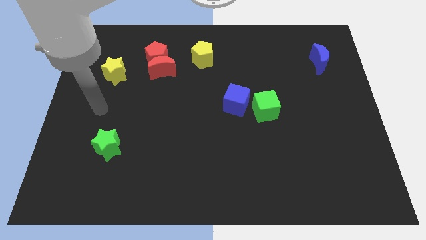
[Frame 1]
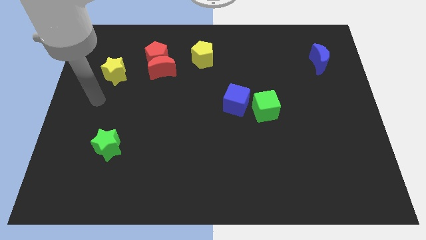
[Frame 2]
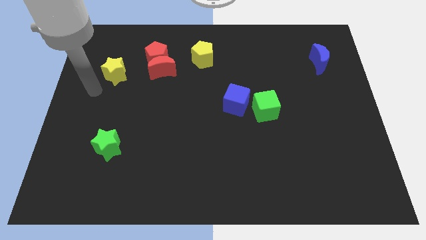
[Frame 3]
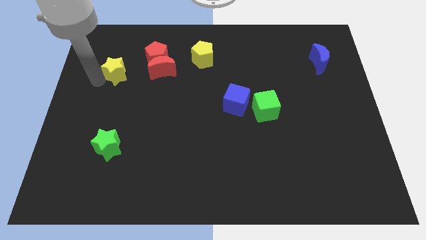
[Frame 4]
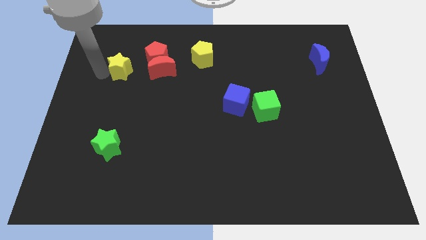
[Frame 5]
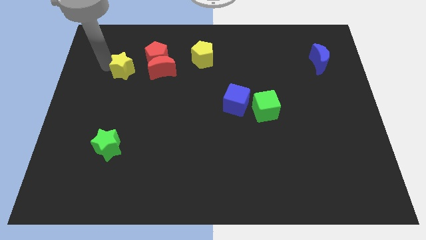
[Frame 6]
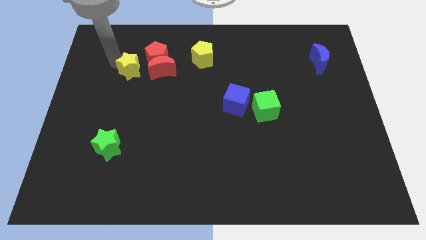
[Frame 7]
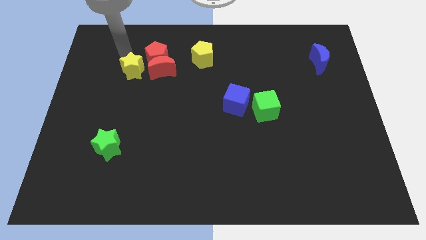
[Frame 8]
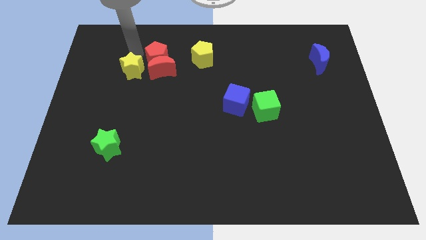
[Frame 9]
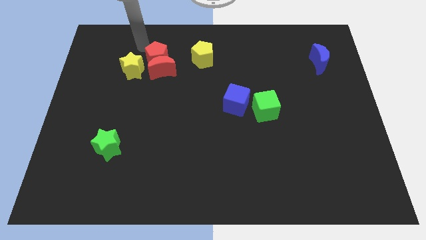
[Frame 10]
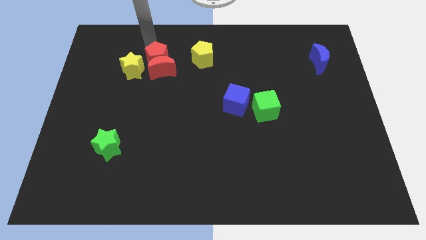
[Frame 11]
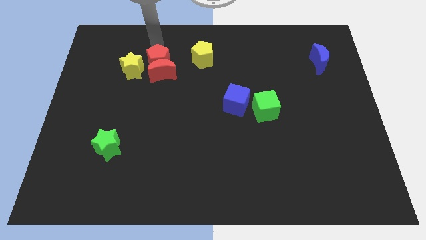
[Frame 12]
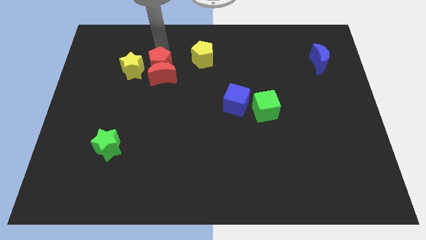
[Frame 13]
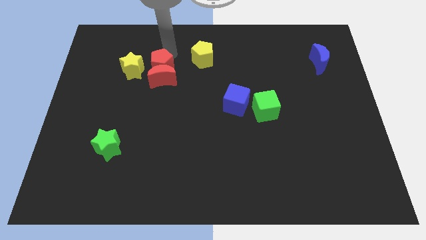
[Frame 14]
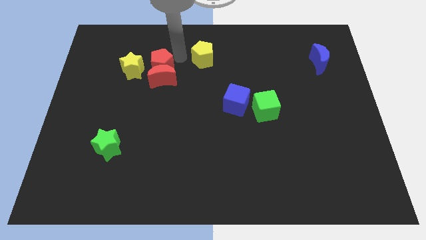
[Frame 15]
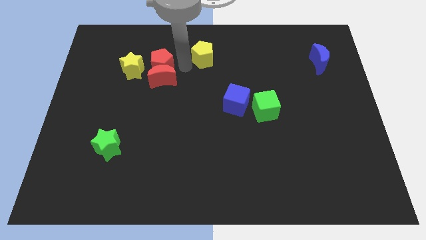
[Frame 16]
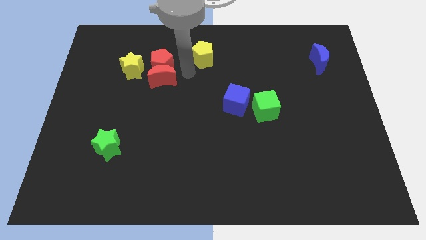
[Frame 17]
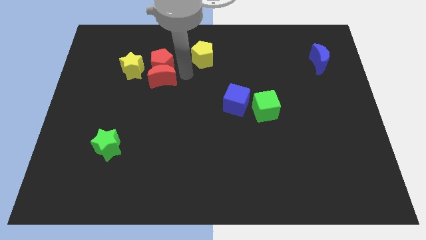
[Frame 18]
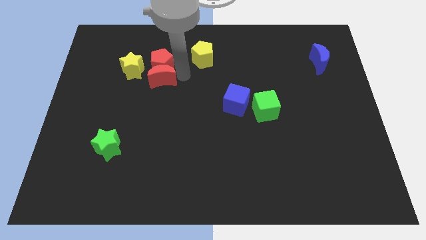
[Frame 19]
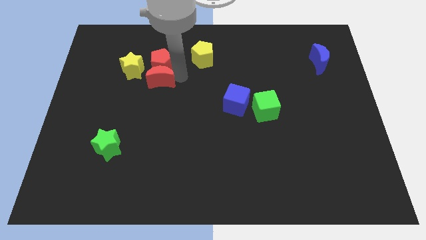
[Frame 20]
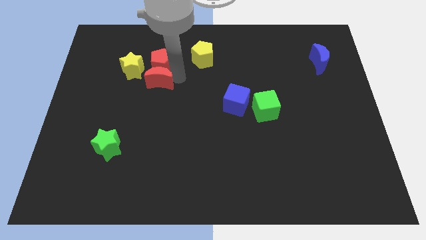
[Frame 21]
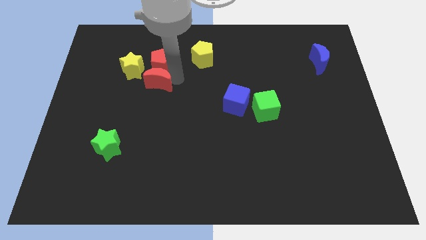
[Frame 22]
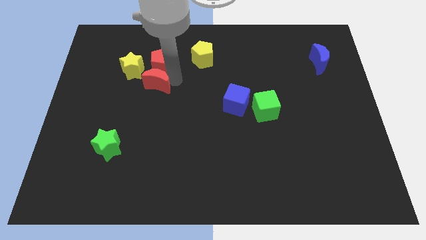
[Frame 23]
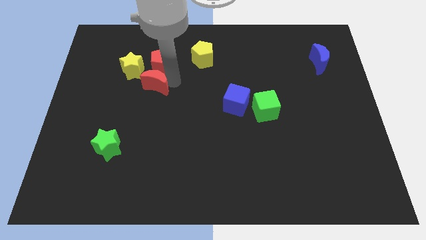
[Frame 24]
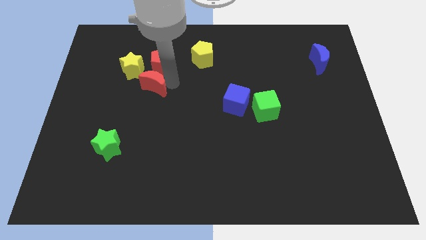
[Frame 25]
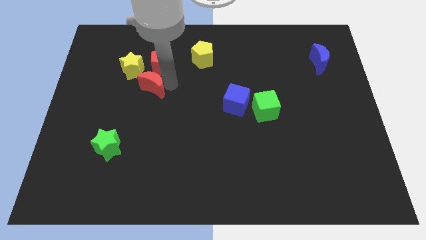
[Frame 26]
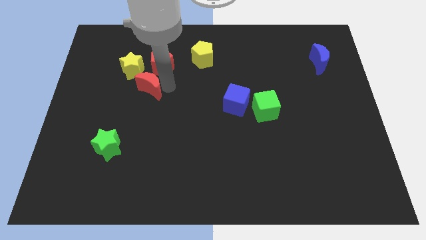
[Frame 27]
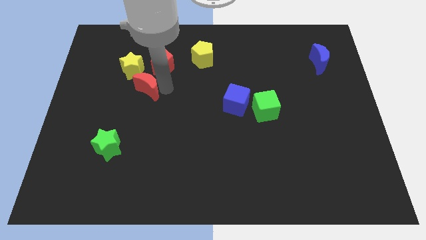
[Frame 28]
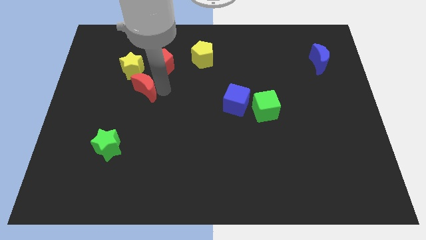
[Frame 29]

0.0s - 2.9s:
slide the red moon a little downwards and then left

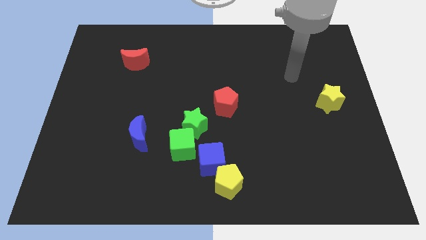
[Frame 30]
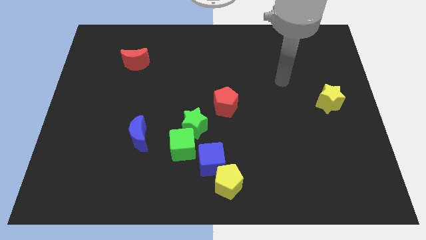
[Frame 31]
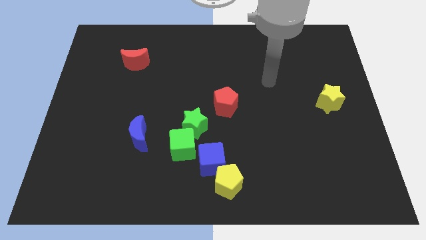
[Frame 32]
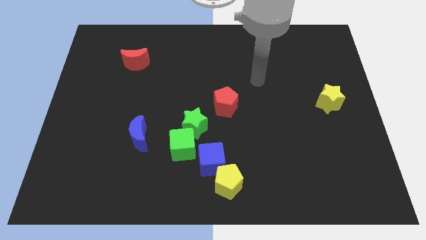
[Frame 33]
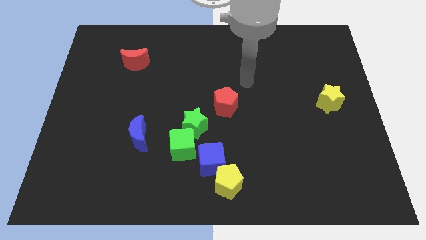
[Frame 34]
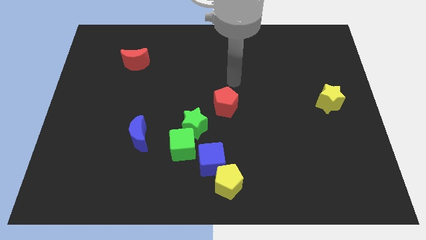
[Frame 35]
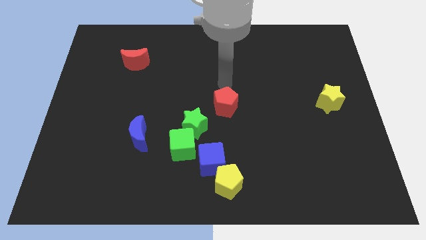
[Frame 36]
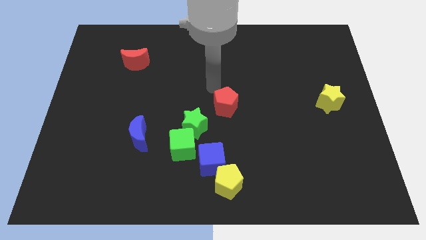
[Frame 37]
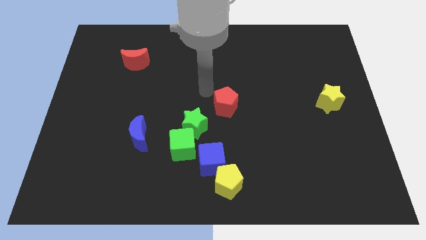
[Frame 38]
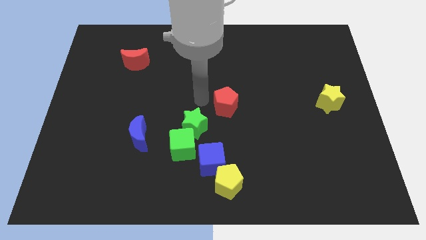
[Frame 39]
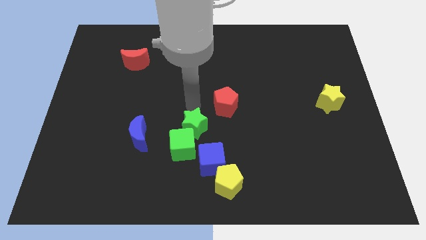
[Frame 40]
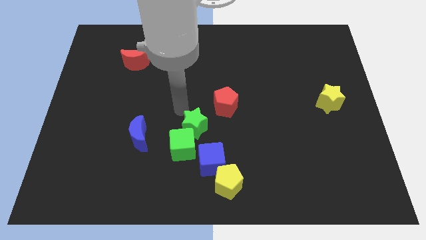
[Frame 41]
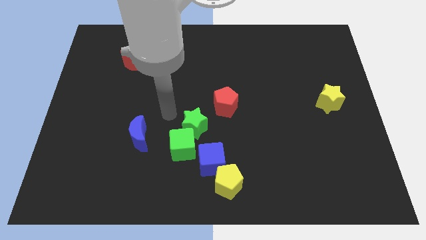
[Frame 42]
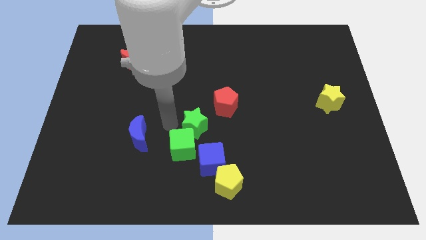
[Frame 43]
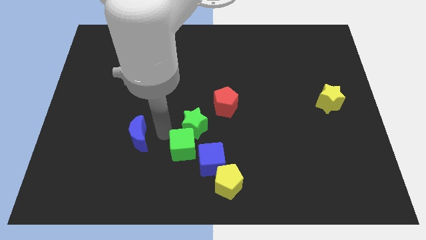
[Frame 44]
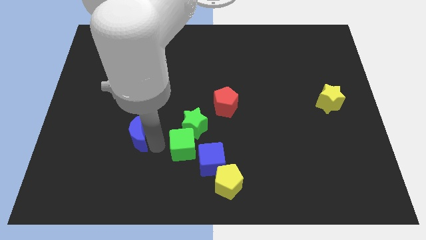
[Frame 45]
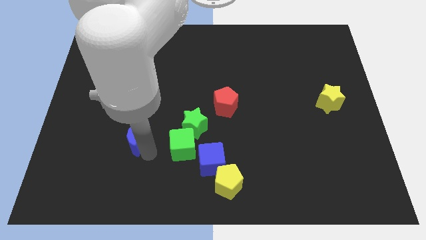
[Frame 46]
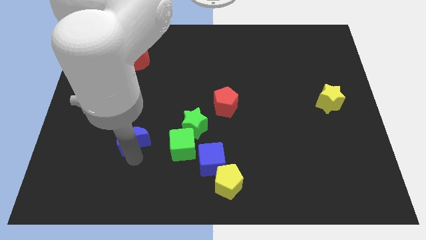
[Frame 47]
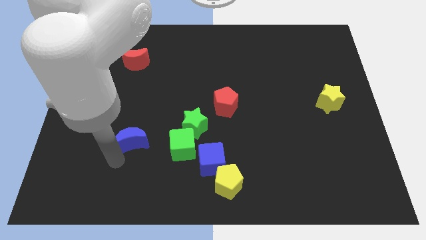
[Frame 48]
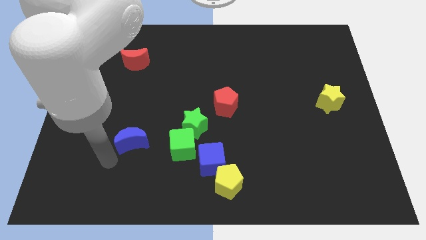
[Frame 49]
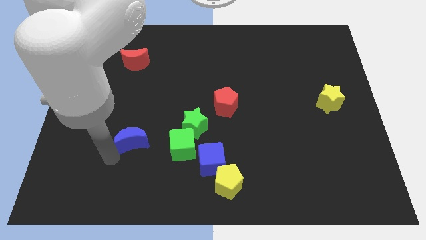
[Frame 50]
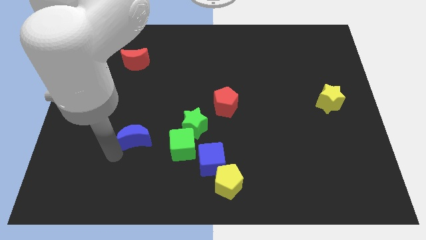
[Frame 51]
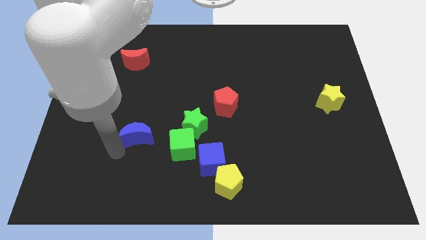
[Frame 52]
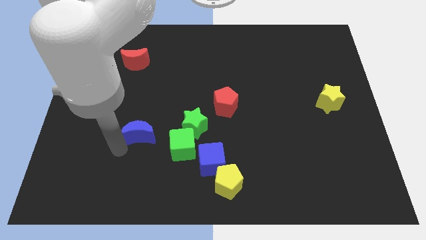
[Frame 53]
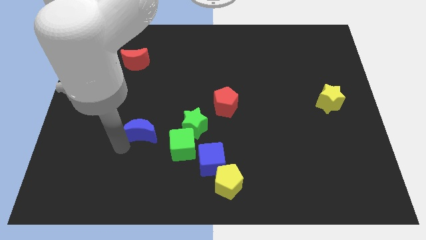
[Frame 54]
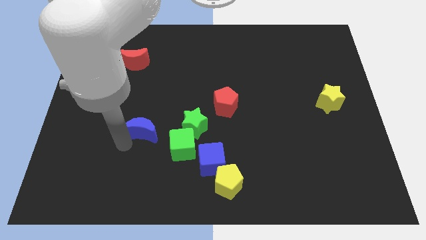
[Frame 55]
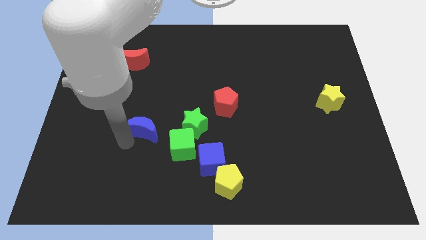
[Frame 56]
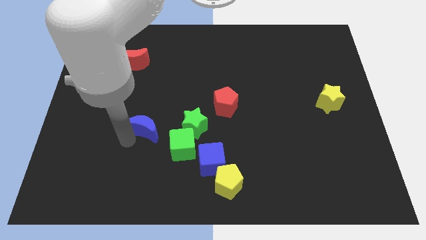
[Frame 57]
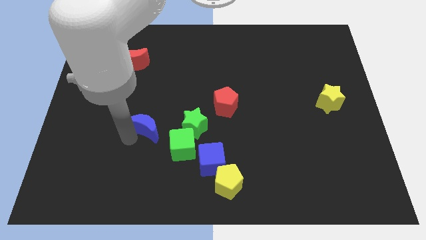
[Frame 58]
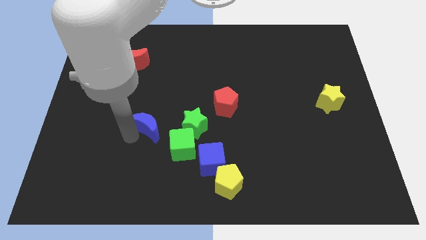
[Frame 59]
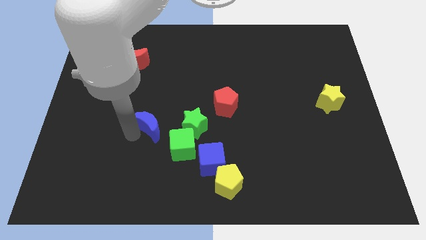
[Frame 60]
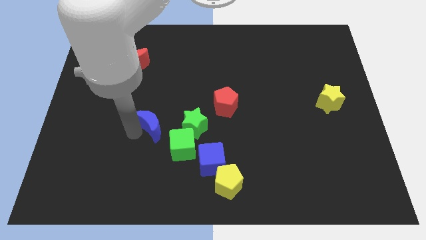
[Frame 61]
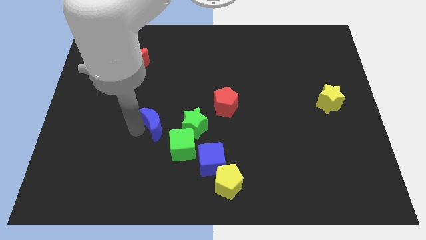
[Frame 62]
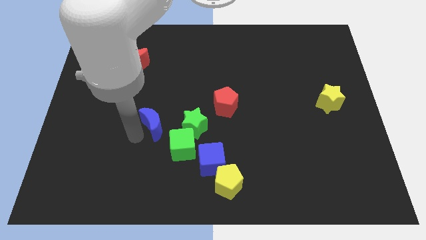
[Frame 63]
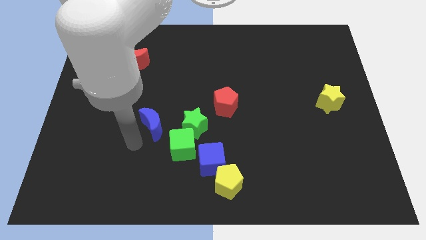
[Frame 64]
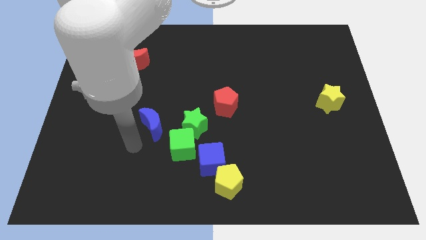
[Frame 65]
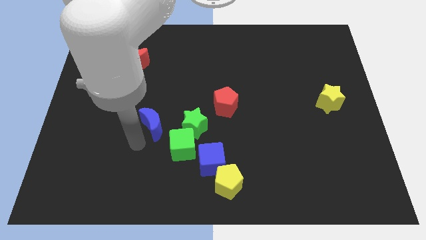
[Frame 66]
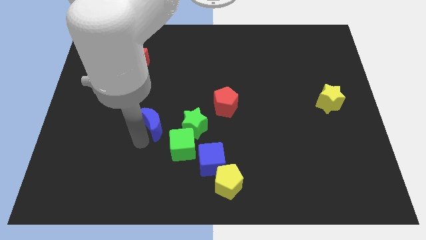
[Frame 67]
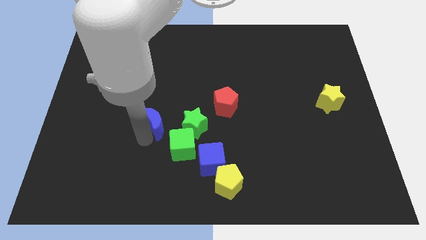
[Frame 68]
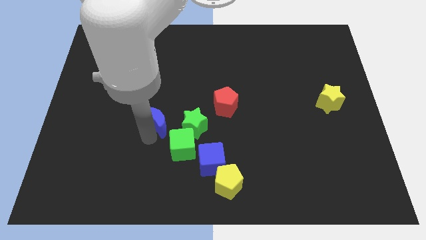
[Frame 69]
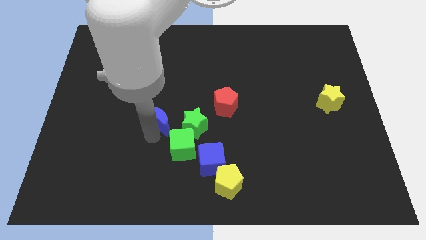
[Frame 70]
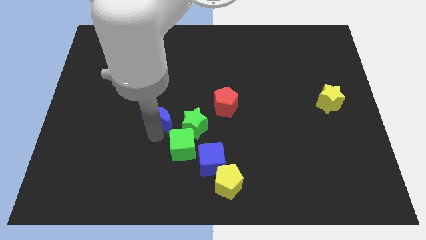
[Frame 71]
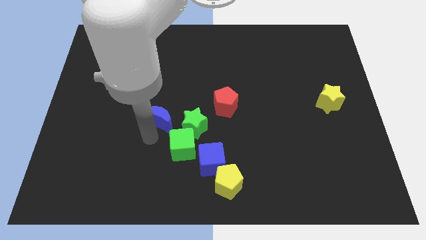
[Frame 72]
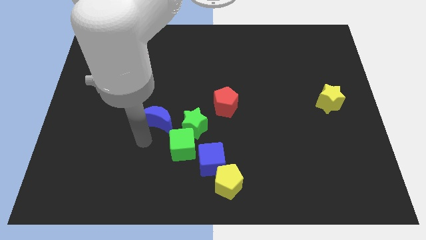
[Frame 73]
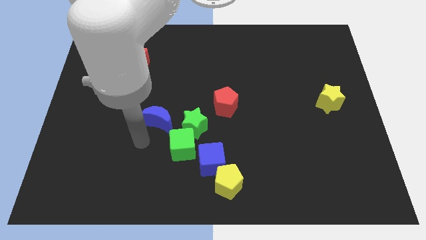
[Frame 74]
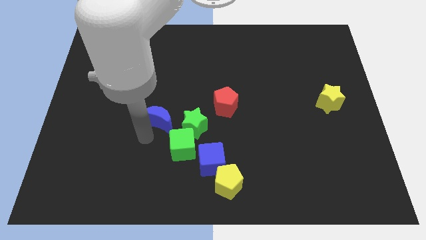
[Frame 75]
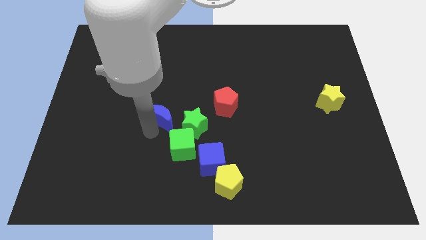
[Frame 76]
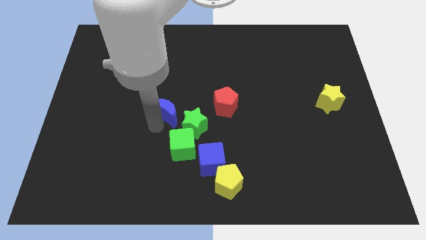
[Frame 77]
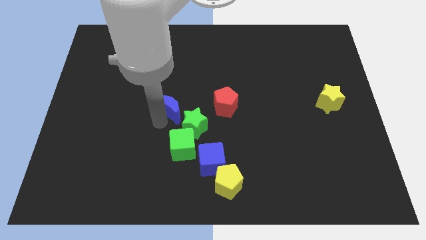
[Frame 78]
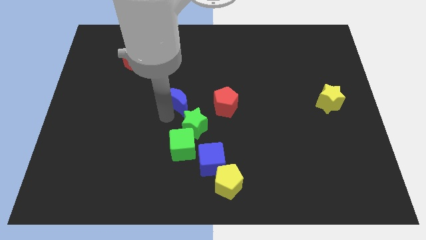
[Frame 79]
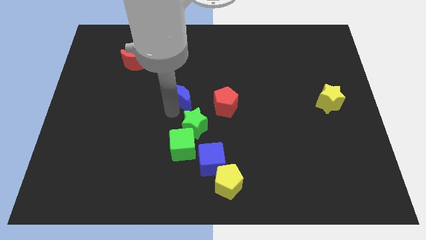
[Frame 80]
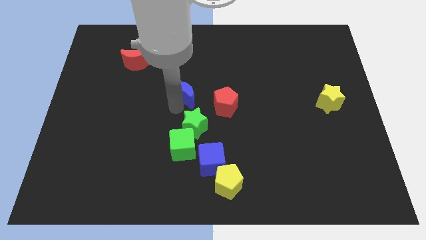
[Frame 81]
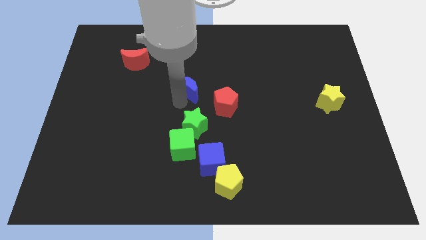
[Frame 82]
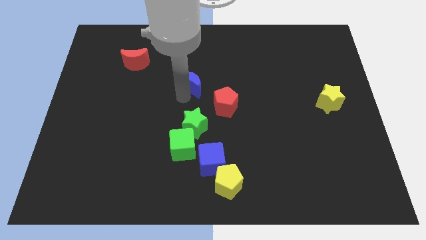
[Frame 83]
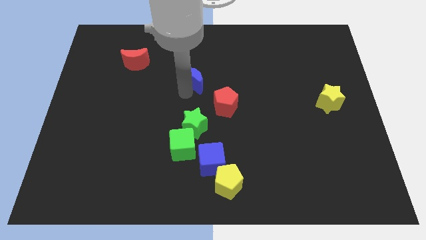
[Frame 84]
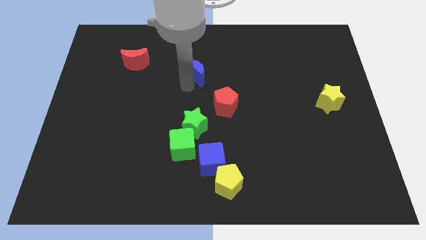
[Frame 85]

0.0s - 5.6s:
slide the blue moon diagonally up and to the right
